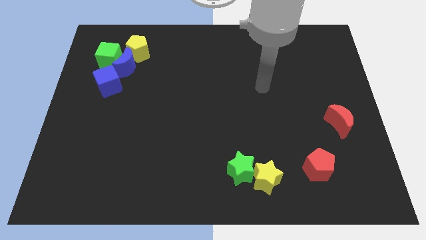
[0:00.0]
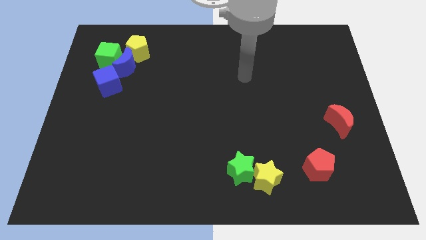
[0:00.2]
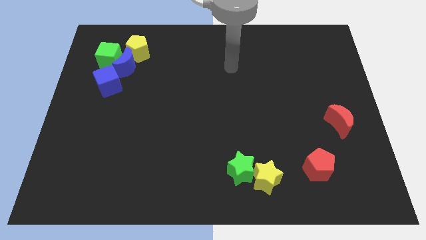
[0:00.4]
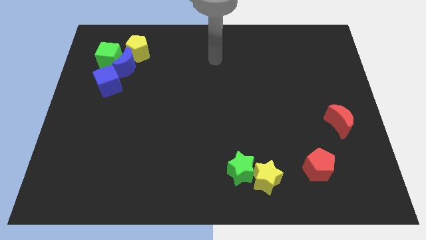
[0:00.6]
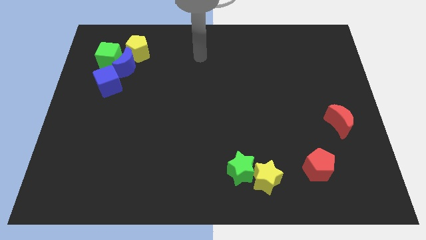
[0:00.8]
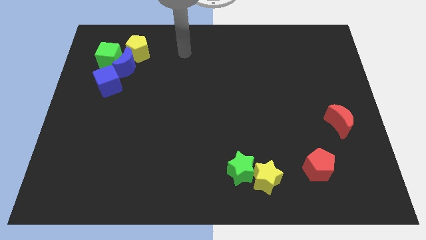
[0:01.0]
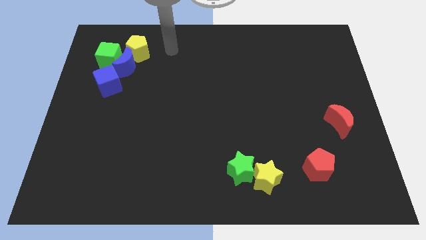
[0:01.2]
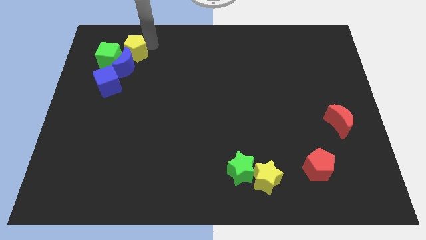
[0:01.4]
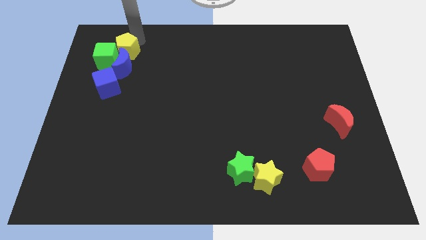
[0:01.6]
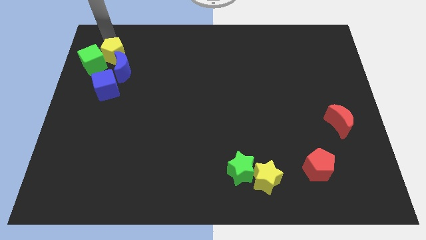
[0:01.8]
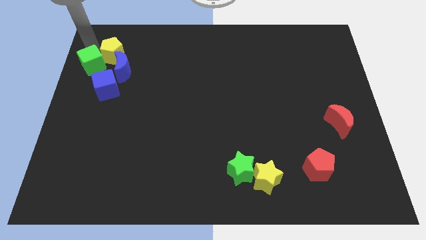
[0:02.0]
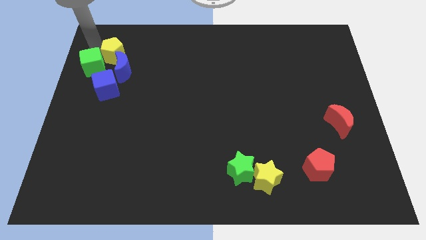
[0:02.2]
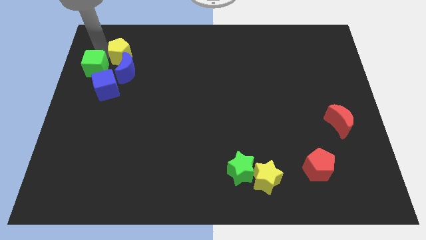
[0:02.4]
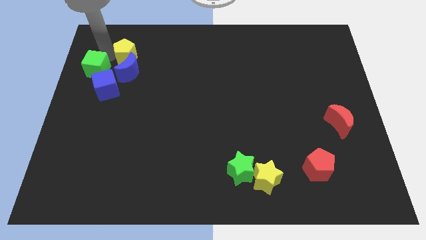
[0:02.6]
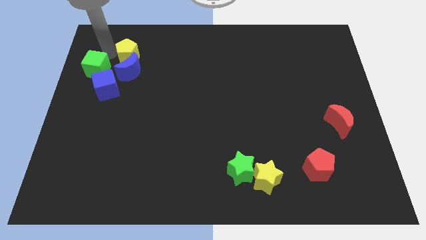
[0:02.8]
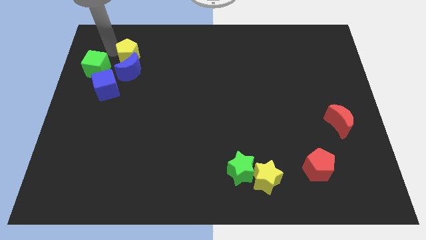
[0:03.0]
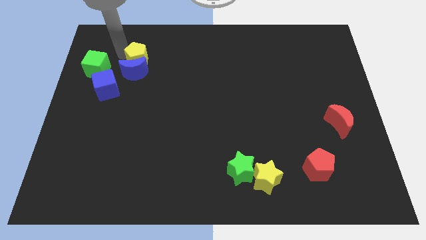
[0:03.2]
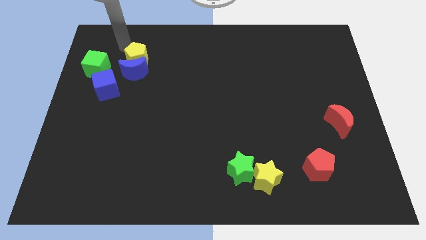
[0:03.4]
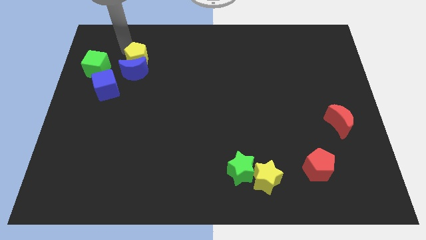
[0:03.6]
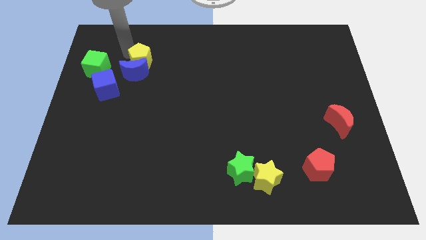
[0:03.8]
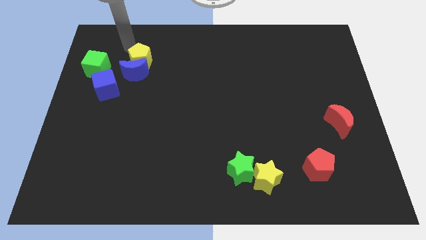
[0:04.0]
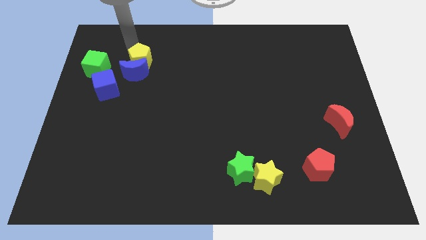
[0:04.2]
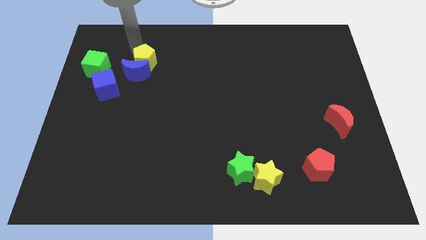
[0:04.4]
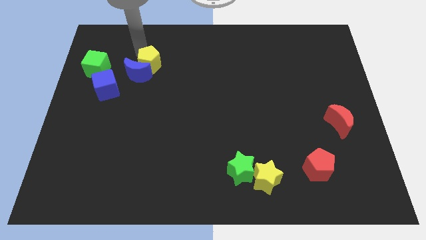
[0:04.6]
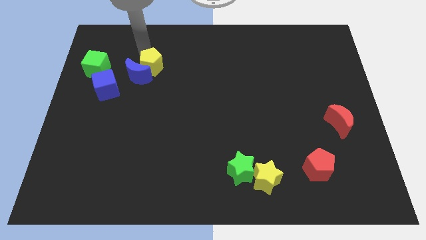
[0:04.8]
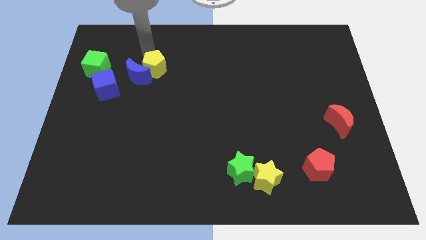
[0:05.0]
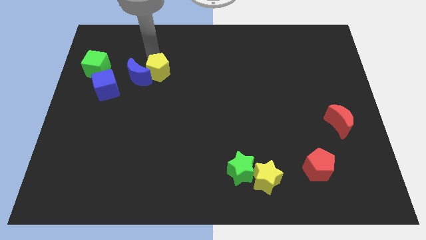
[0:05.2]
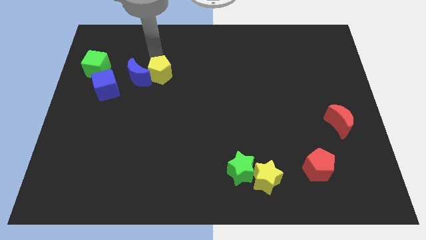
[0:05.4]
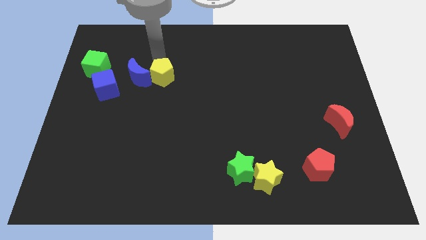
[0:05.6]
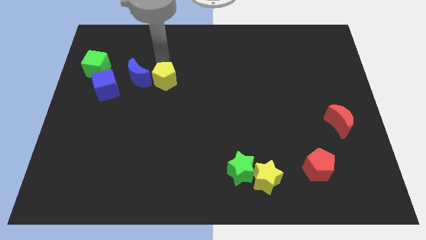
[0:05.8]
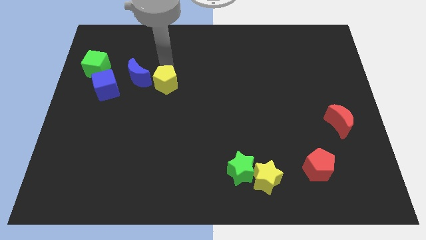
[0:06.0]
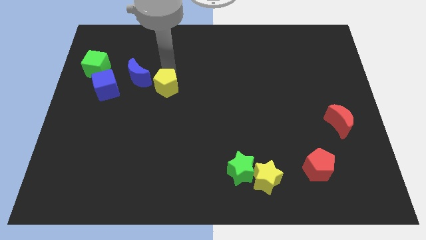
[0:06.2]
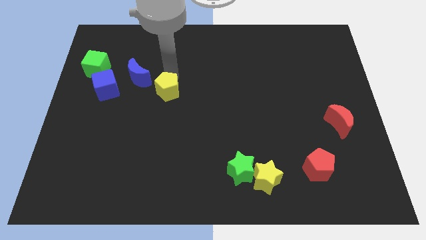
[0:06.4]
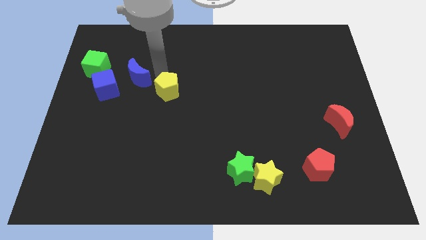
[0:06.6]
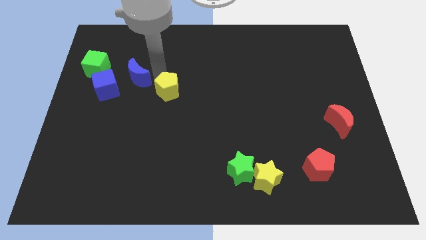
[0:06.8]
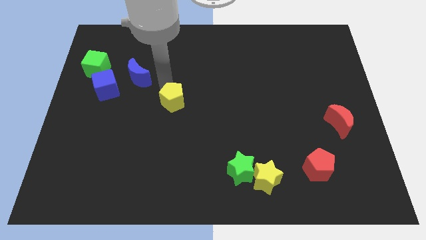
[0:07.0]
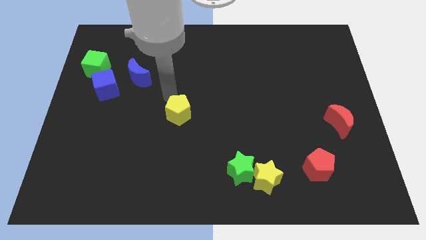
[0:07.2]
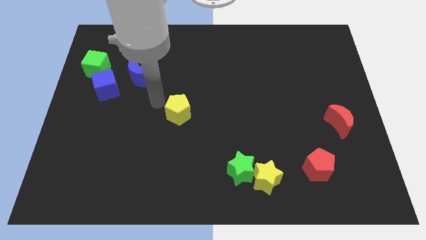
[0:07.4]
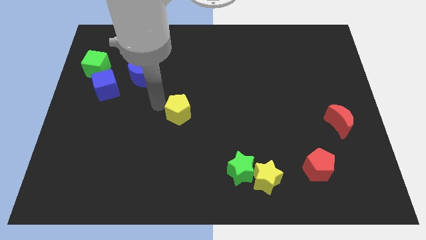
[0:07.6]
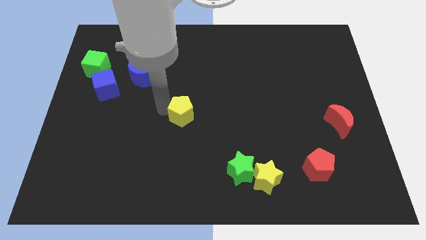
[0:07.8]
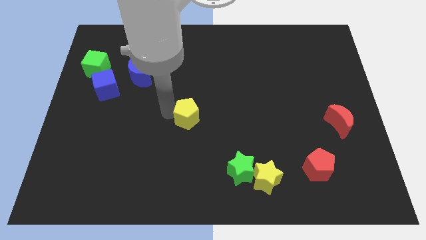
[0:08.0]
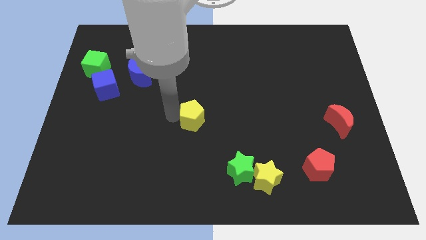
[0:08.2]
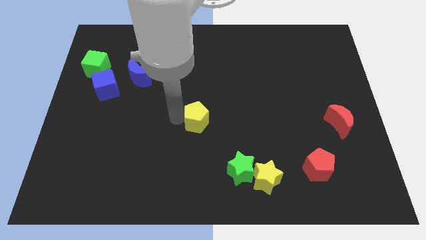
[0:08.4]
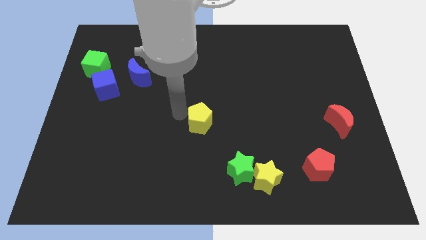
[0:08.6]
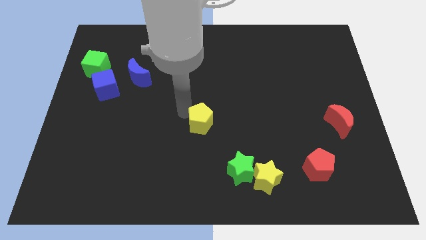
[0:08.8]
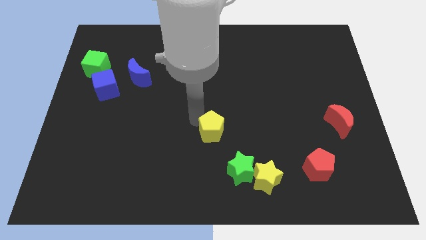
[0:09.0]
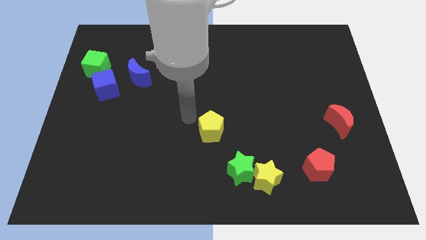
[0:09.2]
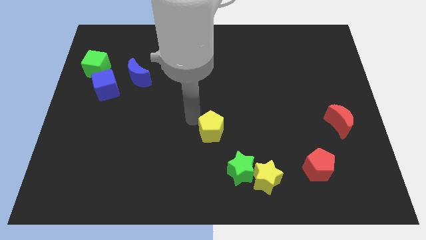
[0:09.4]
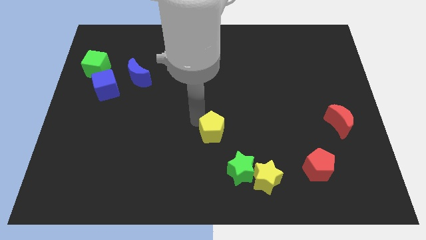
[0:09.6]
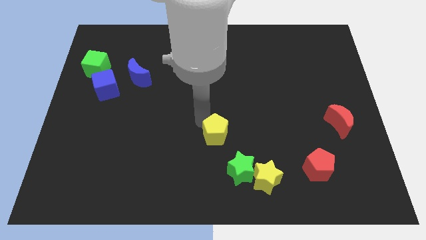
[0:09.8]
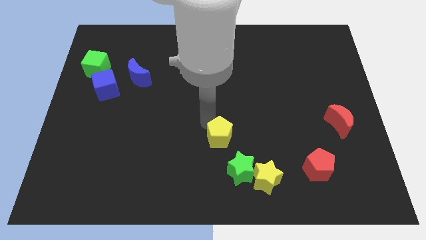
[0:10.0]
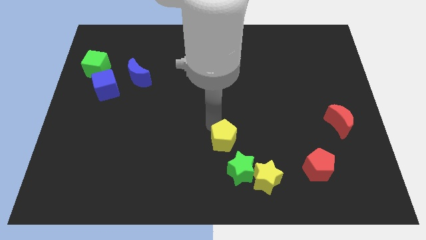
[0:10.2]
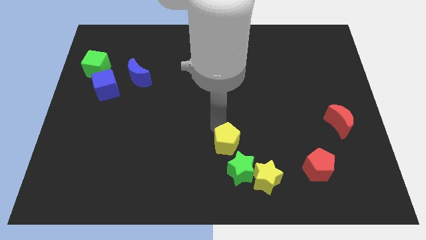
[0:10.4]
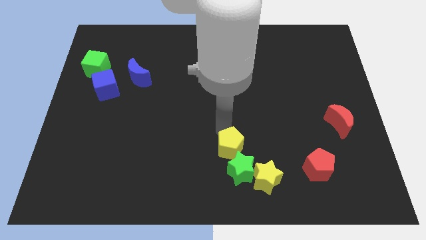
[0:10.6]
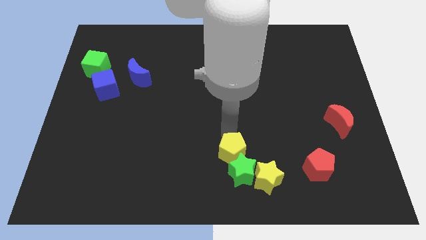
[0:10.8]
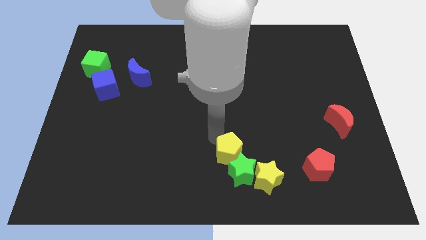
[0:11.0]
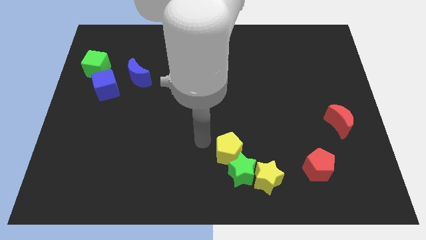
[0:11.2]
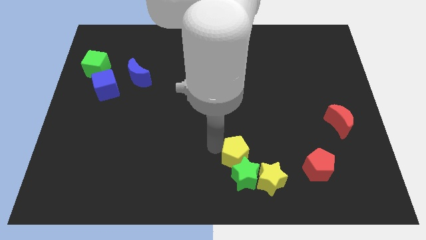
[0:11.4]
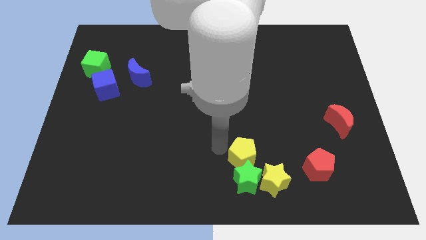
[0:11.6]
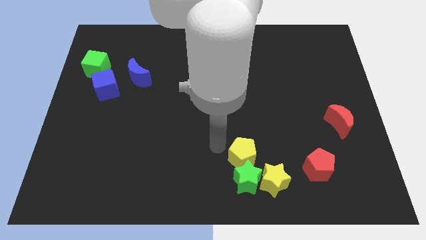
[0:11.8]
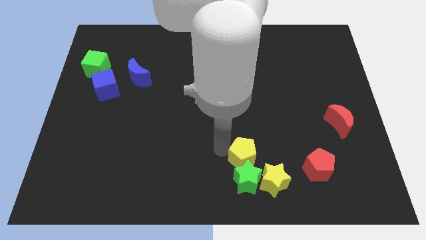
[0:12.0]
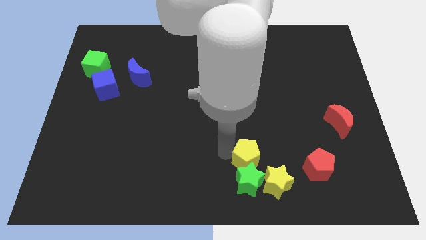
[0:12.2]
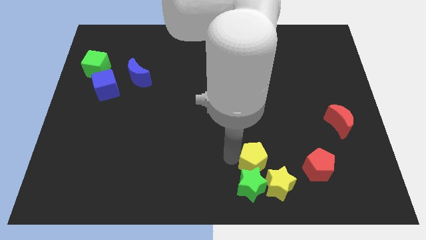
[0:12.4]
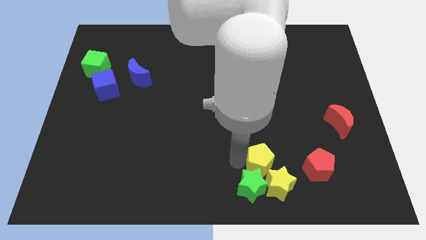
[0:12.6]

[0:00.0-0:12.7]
slide the yellow pentagon towards the yellow star

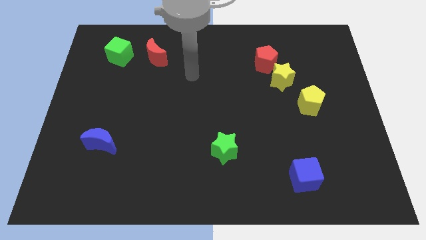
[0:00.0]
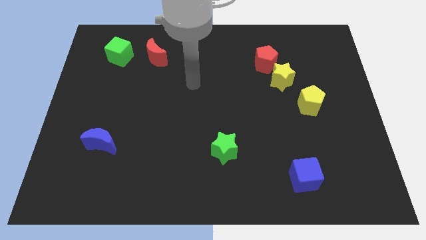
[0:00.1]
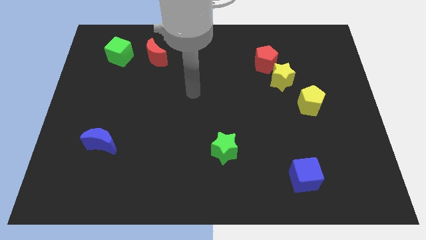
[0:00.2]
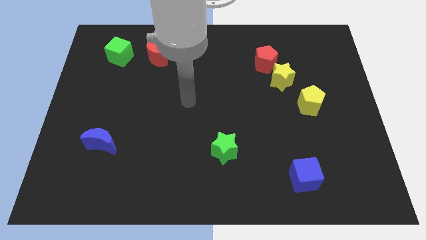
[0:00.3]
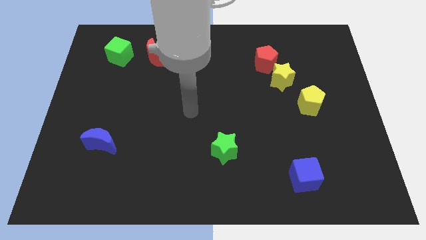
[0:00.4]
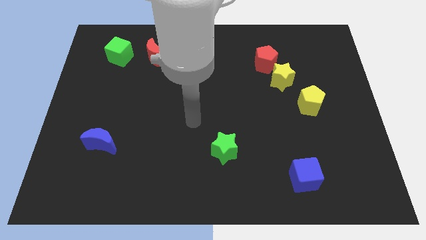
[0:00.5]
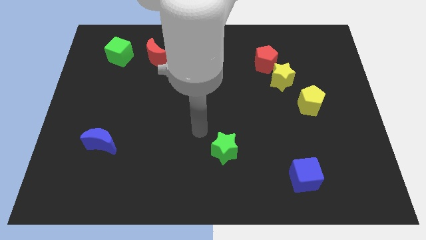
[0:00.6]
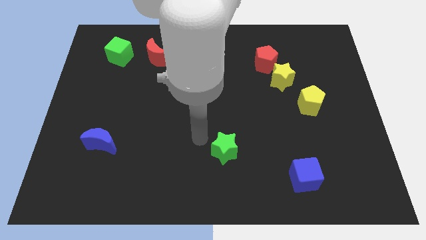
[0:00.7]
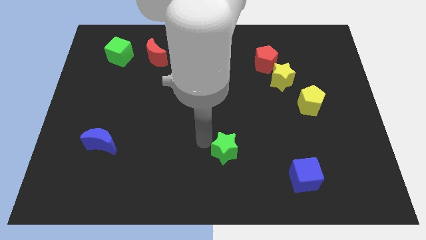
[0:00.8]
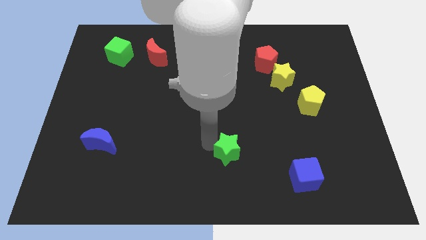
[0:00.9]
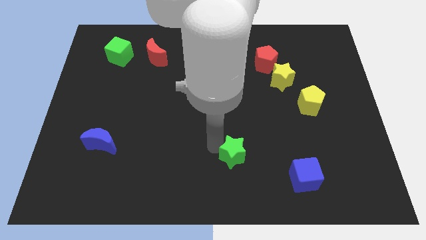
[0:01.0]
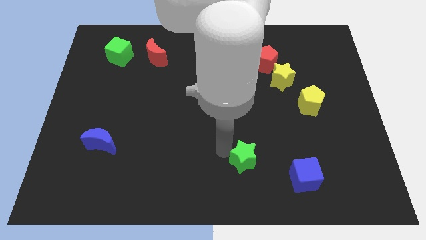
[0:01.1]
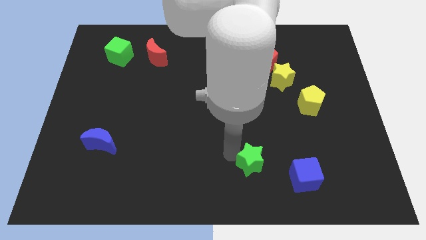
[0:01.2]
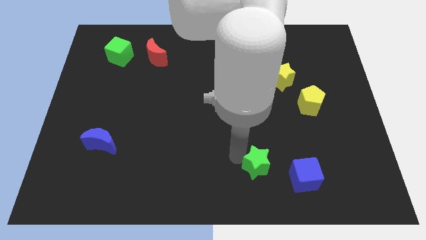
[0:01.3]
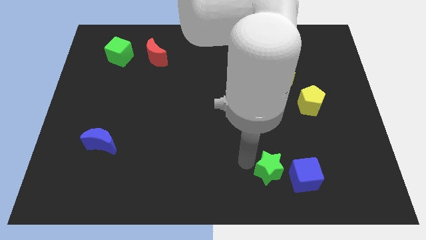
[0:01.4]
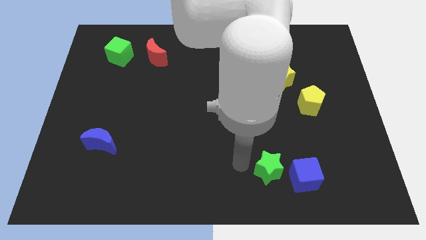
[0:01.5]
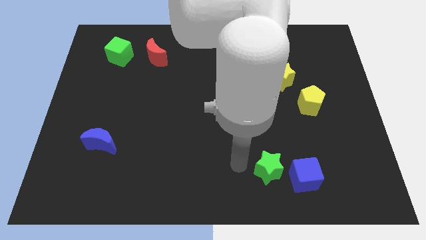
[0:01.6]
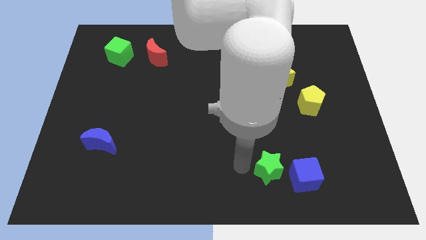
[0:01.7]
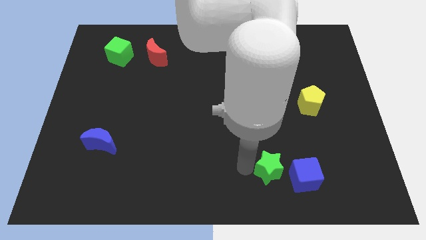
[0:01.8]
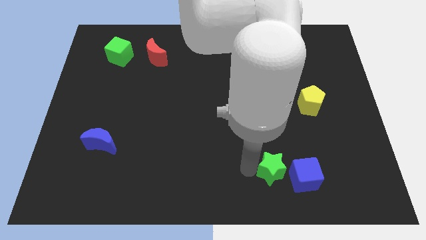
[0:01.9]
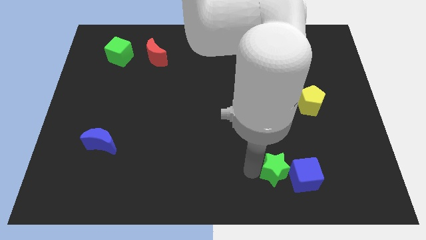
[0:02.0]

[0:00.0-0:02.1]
push the green star next to the blue cube
